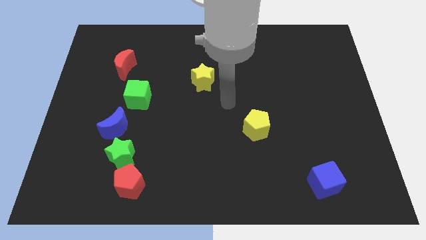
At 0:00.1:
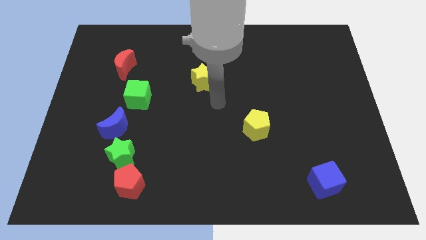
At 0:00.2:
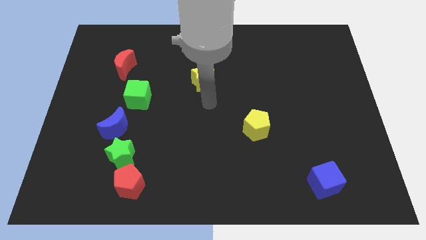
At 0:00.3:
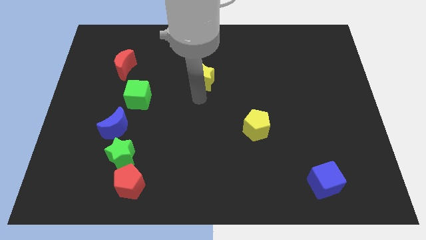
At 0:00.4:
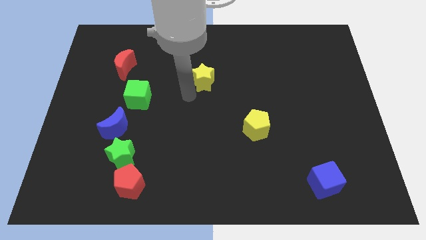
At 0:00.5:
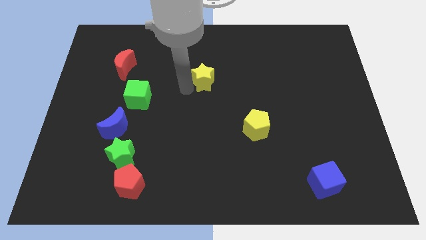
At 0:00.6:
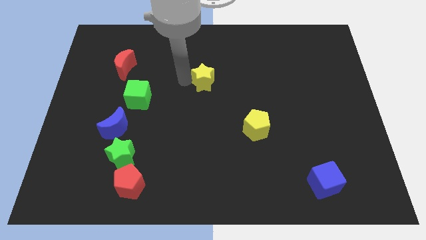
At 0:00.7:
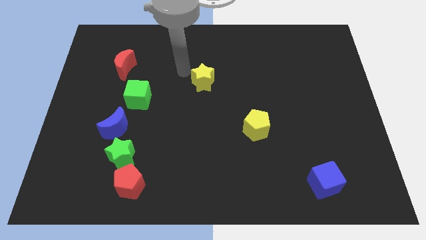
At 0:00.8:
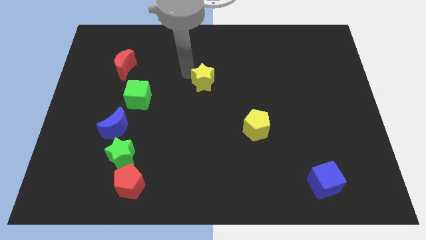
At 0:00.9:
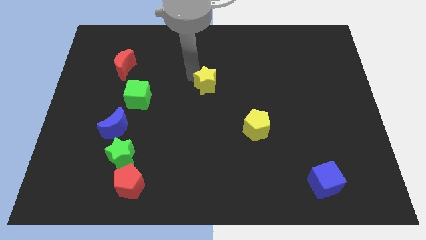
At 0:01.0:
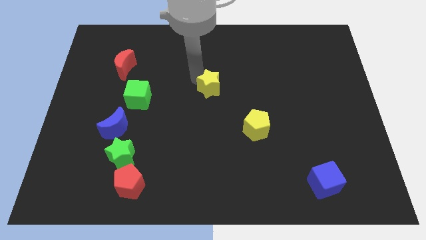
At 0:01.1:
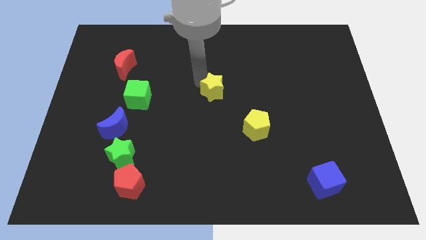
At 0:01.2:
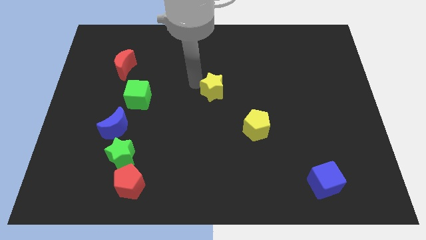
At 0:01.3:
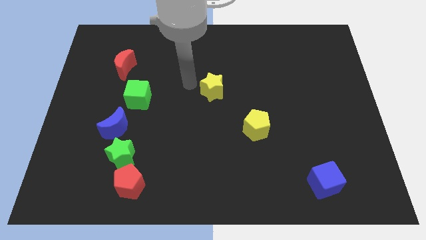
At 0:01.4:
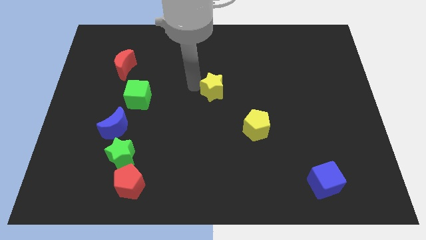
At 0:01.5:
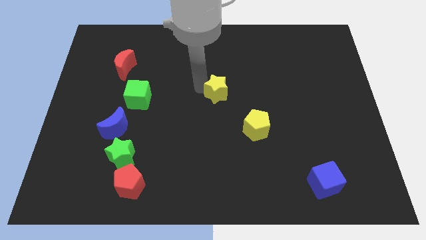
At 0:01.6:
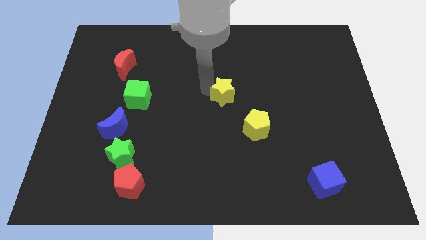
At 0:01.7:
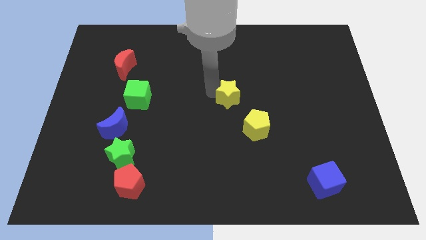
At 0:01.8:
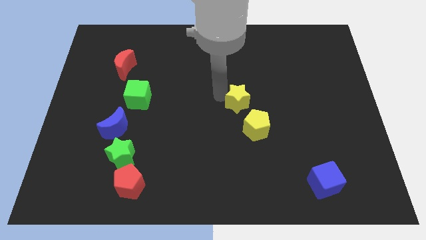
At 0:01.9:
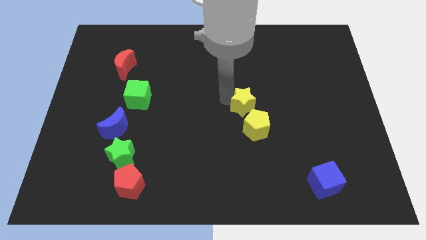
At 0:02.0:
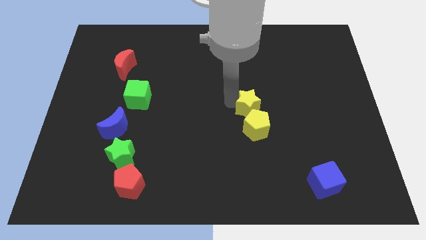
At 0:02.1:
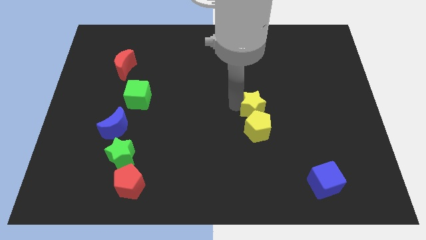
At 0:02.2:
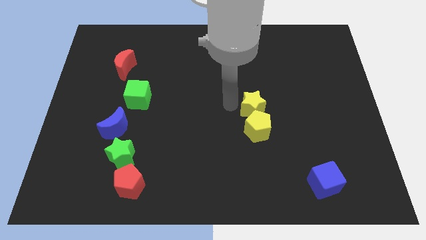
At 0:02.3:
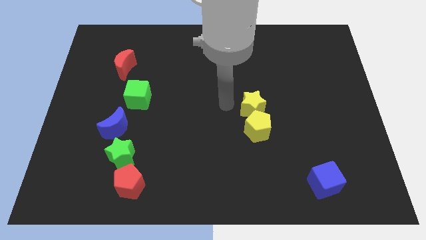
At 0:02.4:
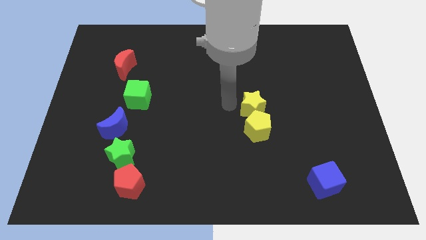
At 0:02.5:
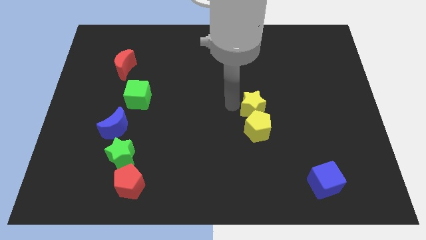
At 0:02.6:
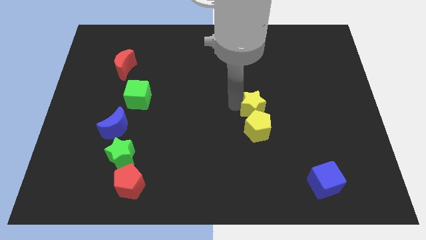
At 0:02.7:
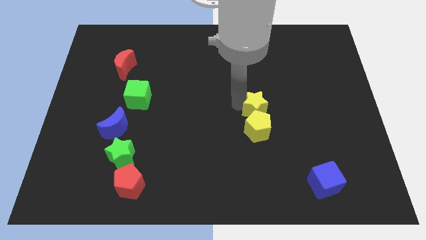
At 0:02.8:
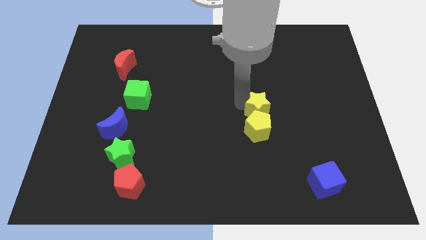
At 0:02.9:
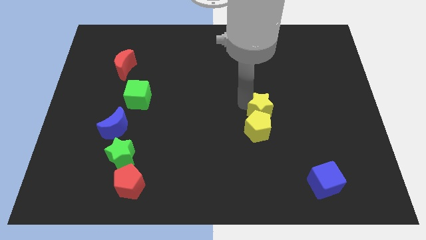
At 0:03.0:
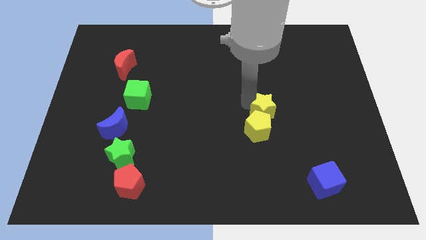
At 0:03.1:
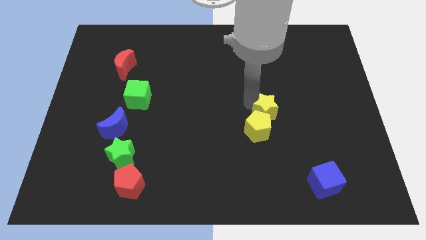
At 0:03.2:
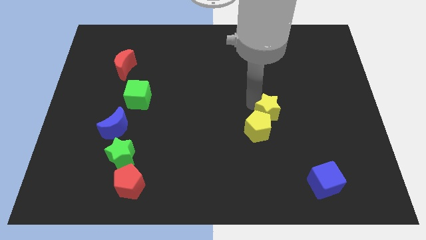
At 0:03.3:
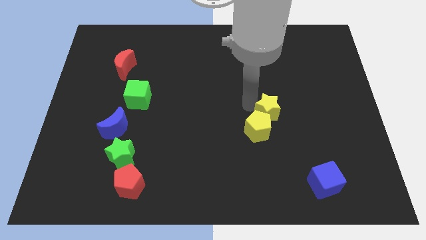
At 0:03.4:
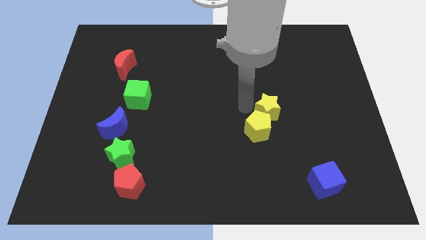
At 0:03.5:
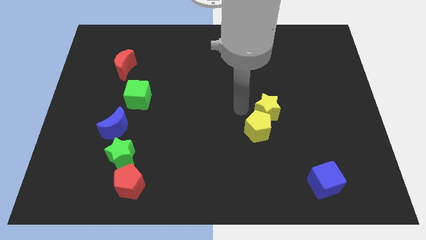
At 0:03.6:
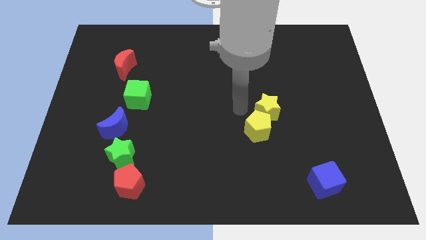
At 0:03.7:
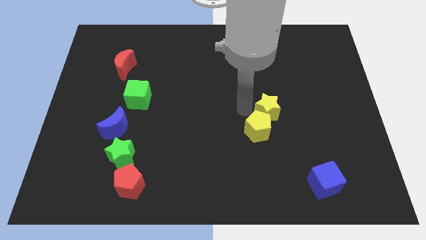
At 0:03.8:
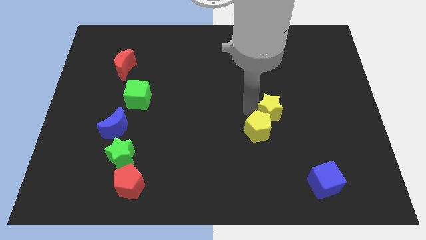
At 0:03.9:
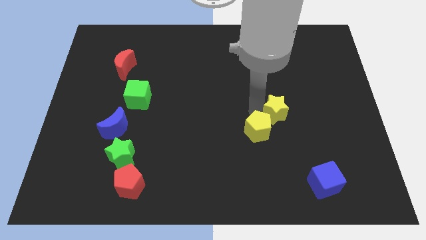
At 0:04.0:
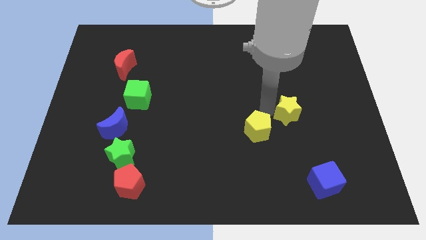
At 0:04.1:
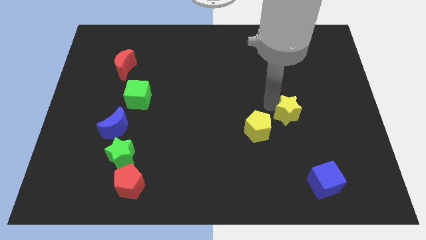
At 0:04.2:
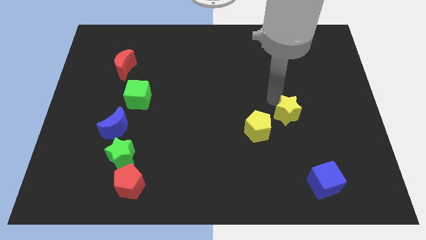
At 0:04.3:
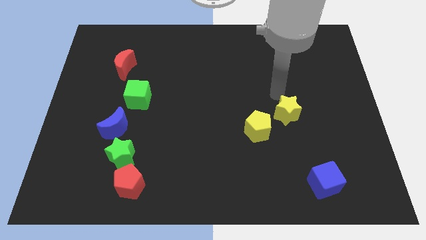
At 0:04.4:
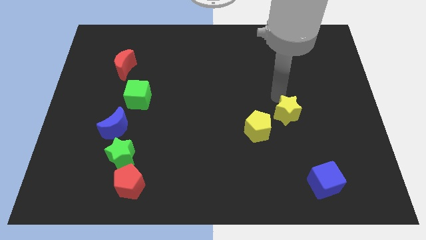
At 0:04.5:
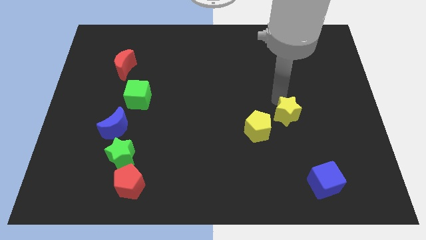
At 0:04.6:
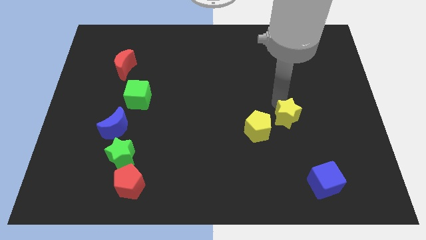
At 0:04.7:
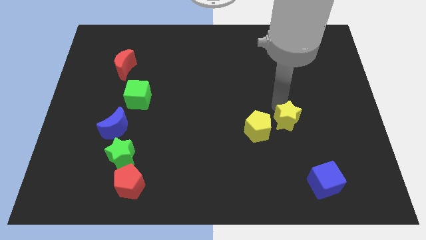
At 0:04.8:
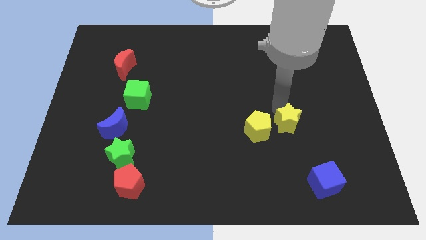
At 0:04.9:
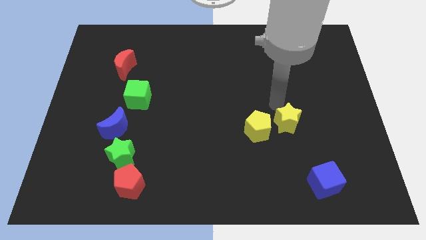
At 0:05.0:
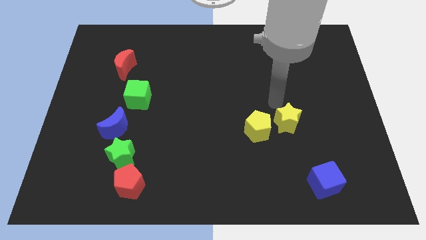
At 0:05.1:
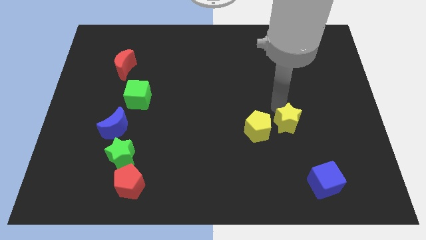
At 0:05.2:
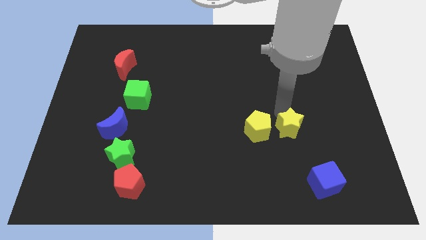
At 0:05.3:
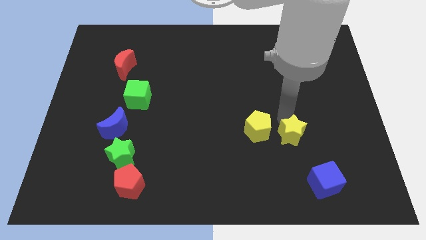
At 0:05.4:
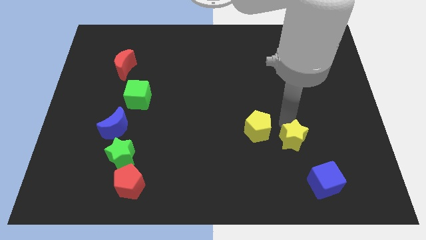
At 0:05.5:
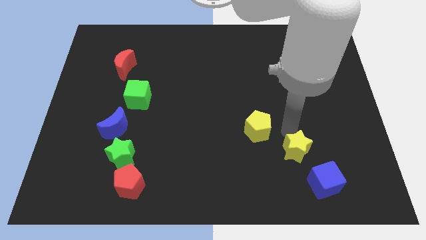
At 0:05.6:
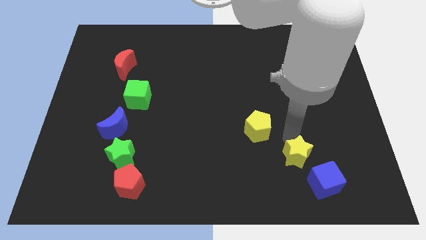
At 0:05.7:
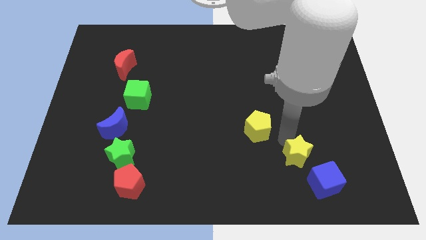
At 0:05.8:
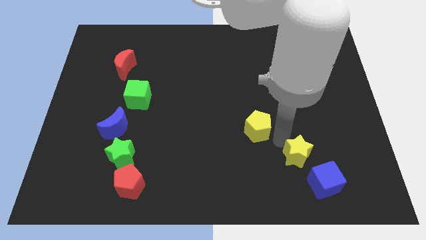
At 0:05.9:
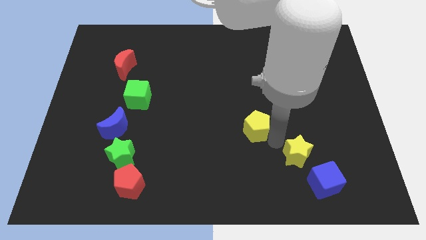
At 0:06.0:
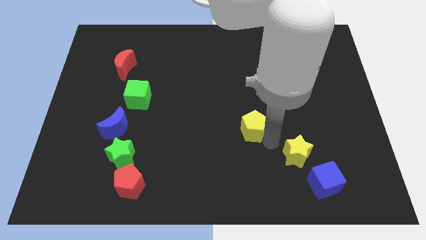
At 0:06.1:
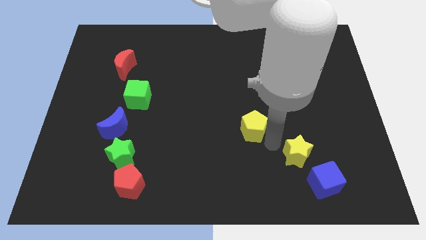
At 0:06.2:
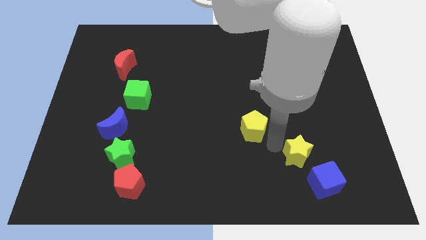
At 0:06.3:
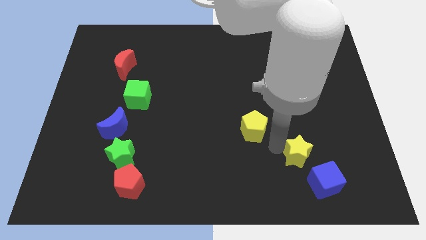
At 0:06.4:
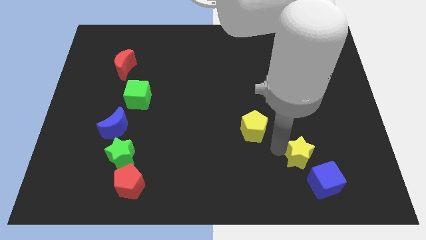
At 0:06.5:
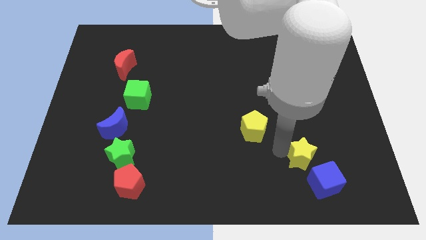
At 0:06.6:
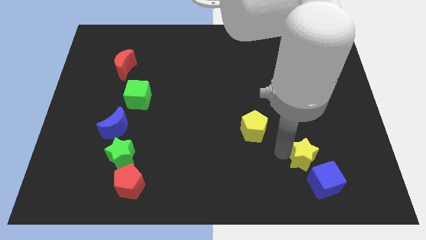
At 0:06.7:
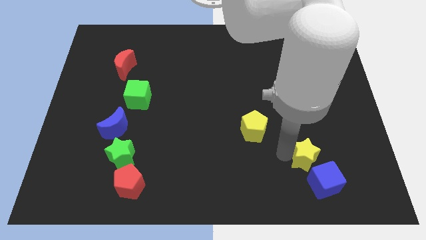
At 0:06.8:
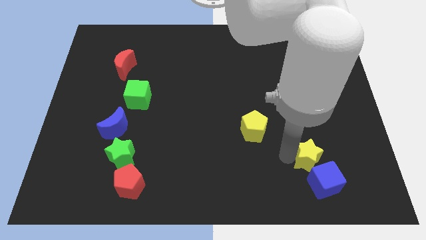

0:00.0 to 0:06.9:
push the yellow star to the blue cube

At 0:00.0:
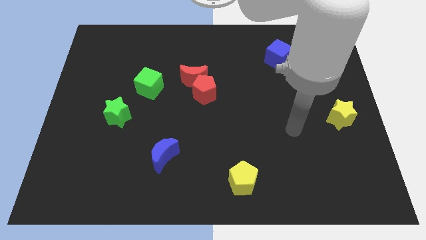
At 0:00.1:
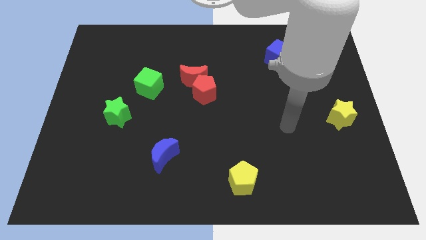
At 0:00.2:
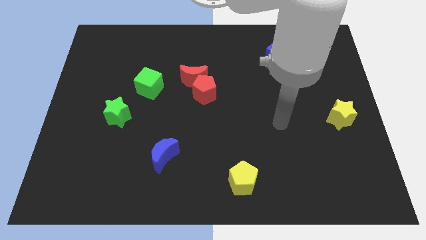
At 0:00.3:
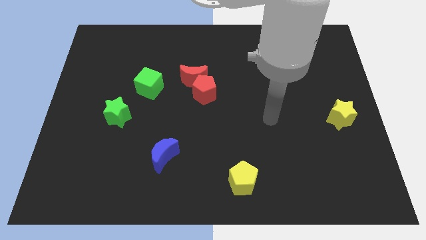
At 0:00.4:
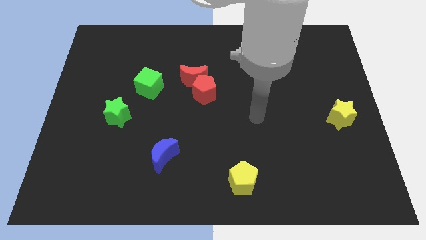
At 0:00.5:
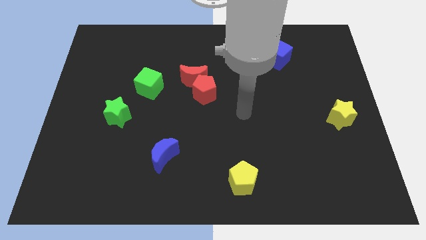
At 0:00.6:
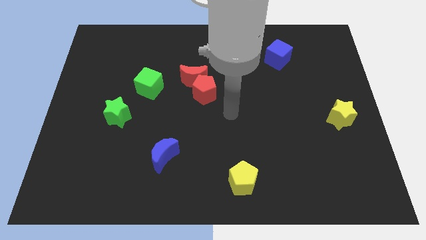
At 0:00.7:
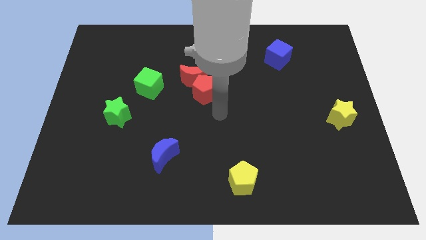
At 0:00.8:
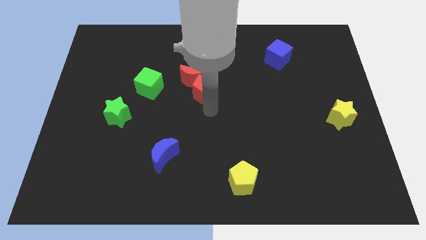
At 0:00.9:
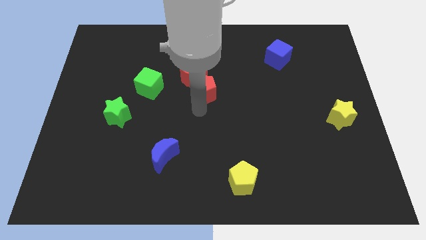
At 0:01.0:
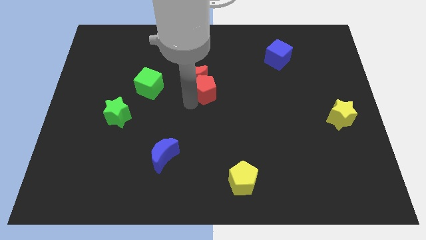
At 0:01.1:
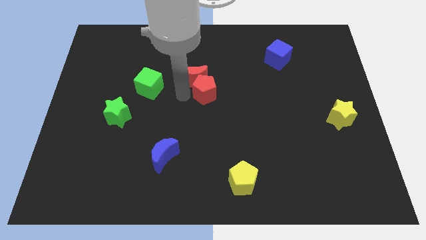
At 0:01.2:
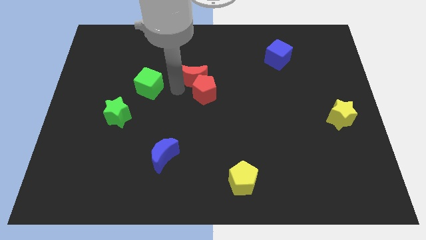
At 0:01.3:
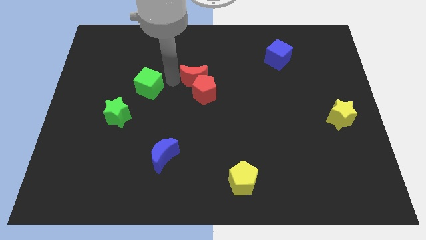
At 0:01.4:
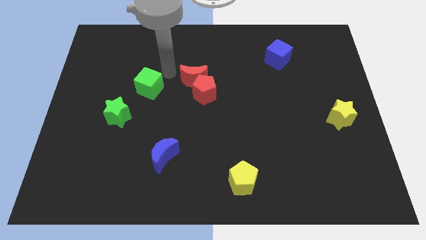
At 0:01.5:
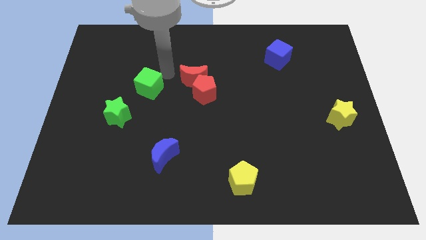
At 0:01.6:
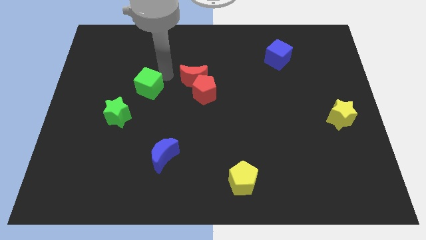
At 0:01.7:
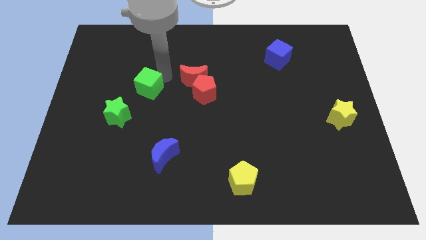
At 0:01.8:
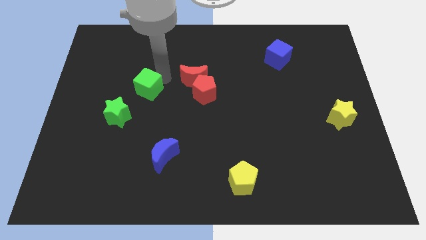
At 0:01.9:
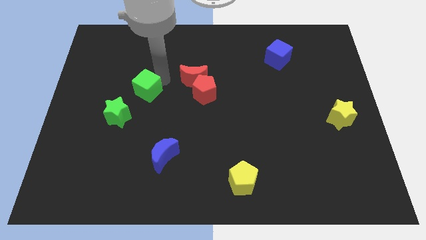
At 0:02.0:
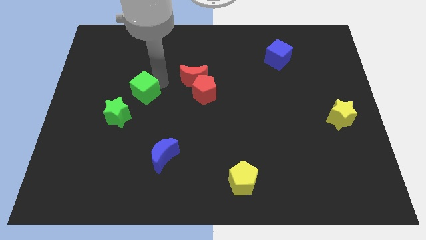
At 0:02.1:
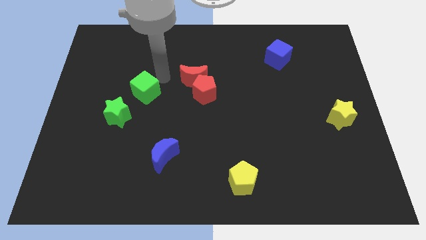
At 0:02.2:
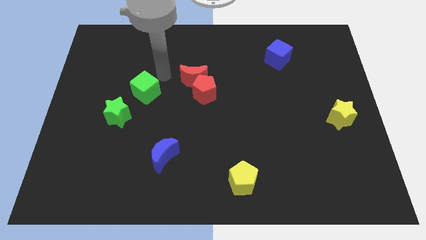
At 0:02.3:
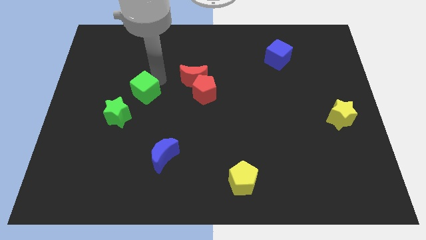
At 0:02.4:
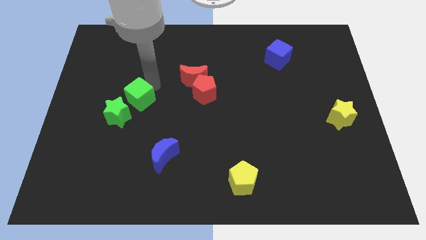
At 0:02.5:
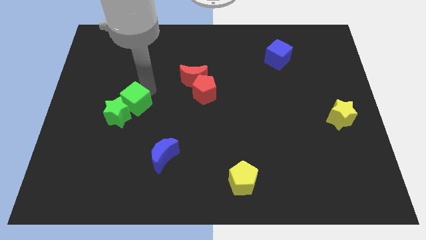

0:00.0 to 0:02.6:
slide the green cube to the green star
